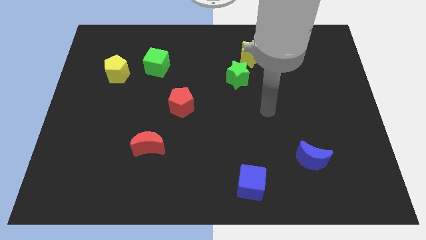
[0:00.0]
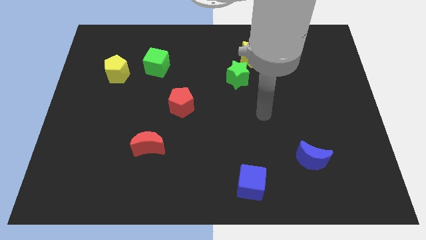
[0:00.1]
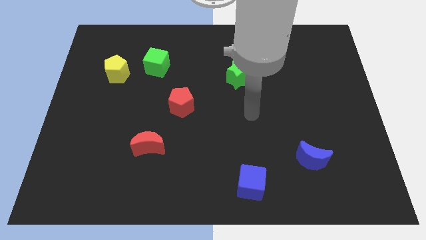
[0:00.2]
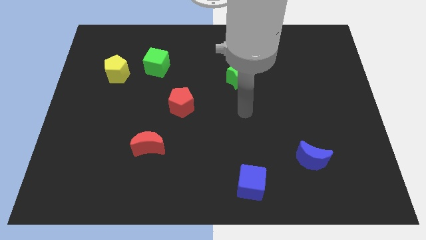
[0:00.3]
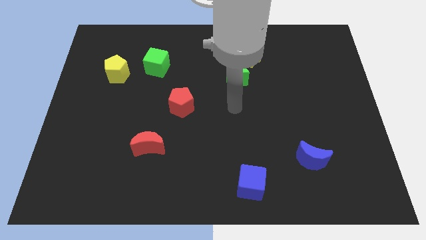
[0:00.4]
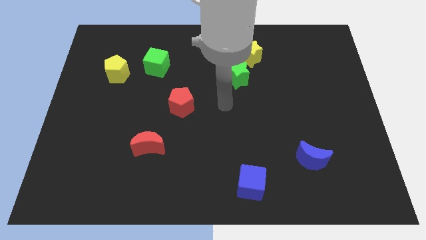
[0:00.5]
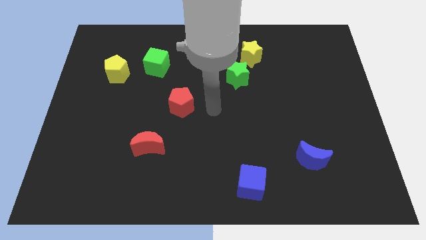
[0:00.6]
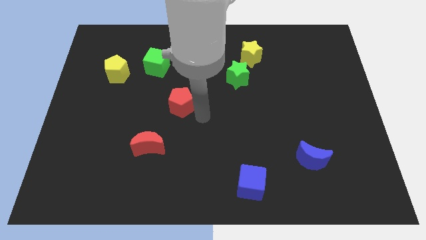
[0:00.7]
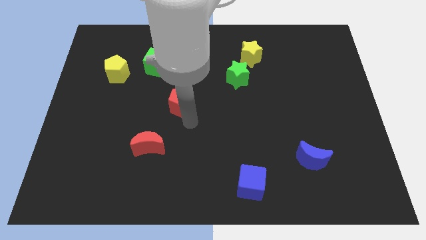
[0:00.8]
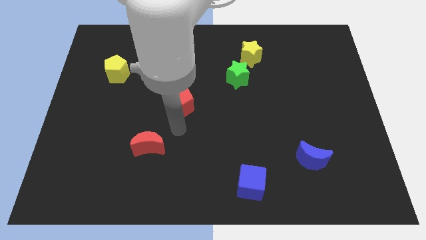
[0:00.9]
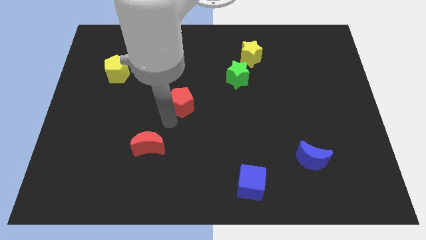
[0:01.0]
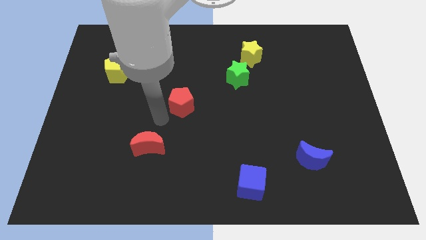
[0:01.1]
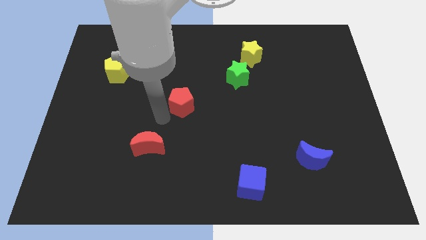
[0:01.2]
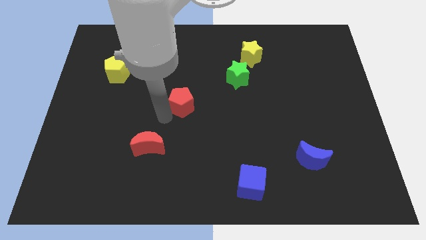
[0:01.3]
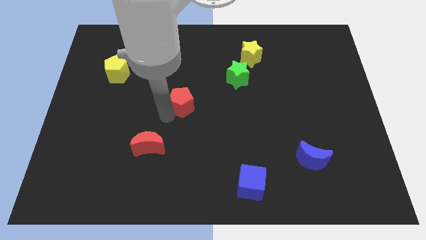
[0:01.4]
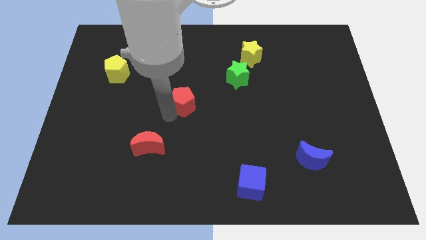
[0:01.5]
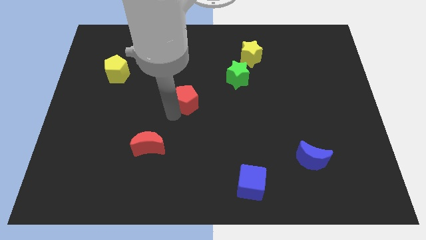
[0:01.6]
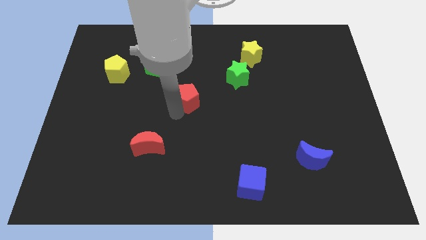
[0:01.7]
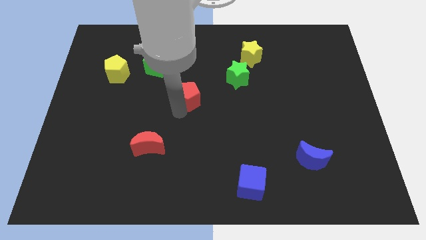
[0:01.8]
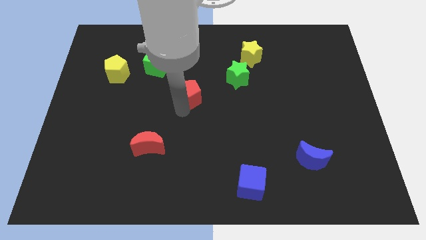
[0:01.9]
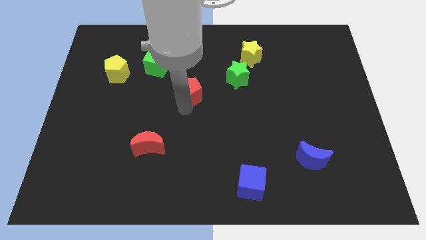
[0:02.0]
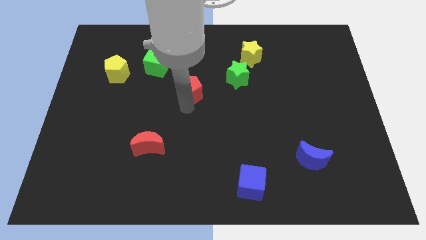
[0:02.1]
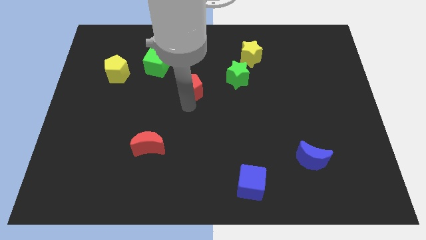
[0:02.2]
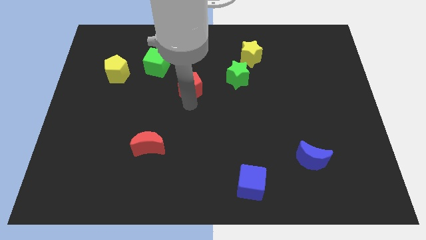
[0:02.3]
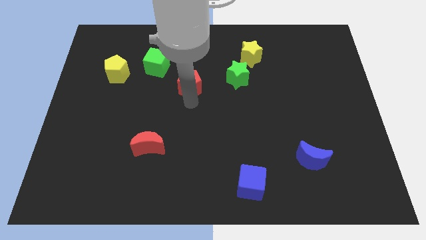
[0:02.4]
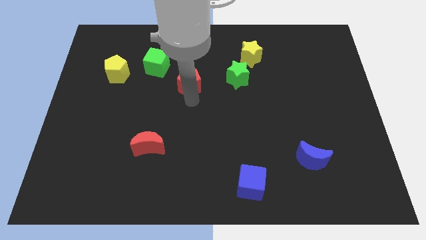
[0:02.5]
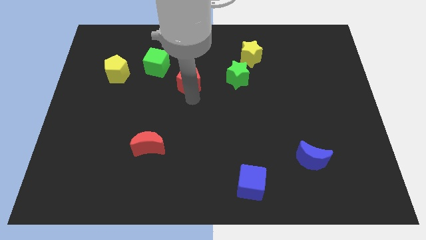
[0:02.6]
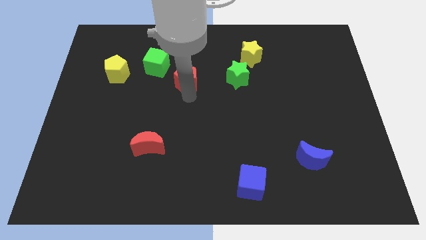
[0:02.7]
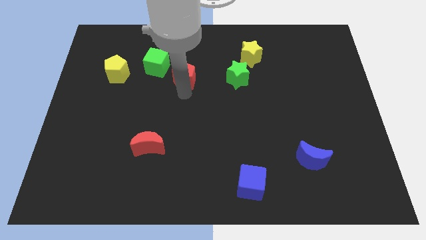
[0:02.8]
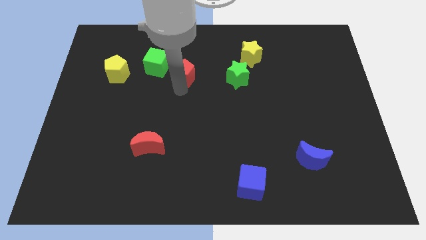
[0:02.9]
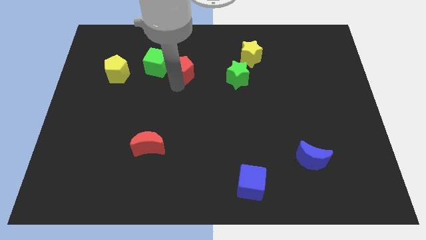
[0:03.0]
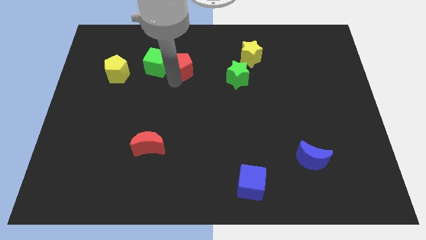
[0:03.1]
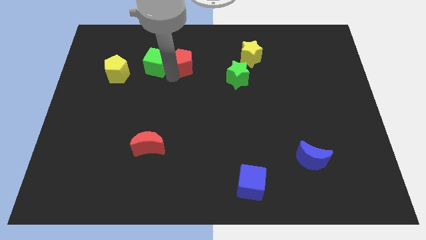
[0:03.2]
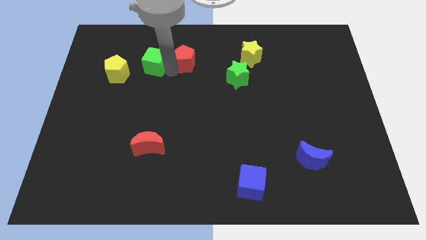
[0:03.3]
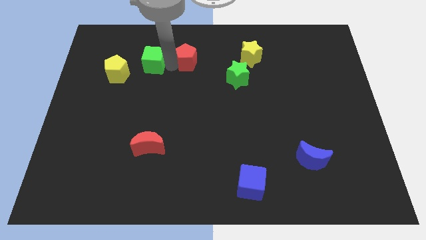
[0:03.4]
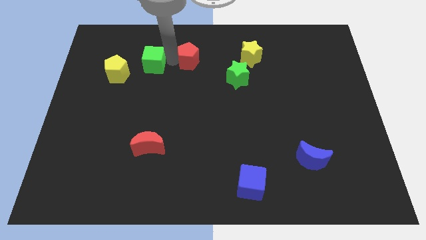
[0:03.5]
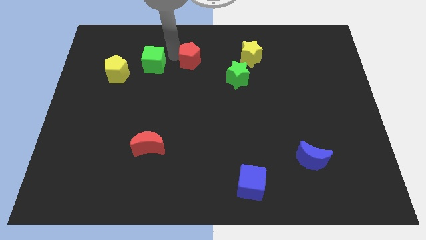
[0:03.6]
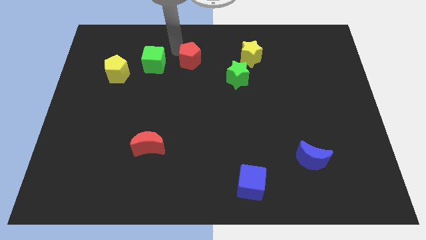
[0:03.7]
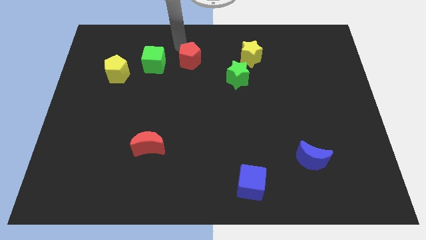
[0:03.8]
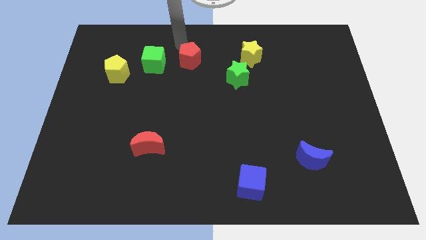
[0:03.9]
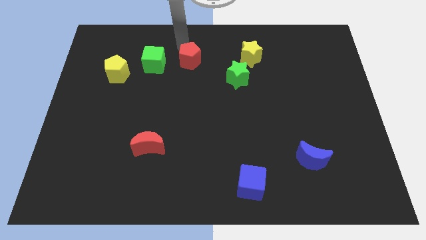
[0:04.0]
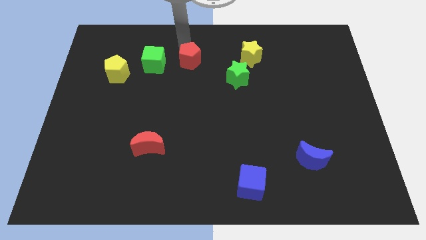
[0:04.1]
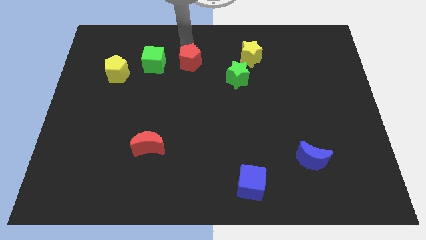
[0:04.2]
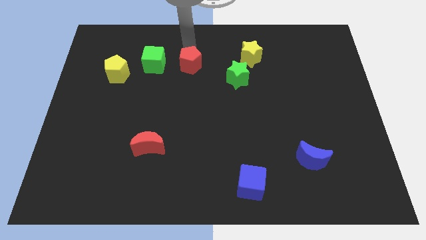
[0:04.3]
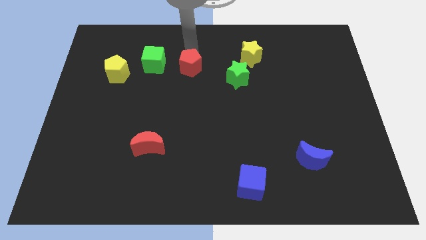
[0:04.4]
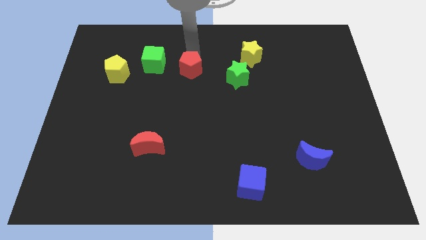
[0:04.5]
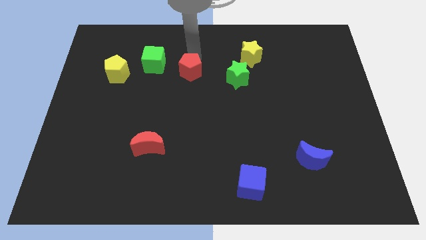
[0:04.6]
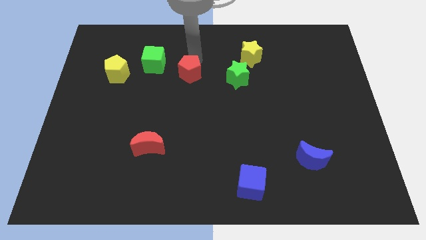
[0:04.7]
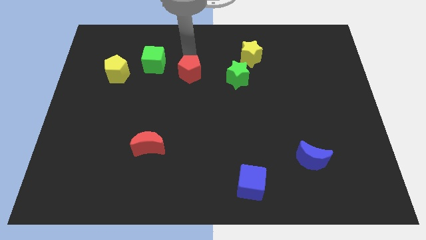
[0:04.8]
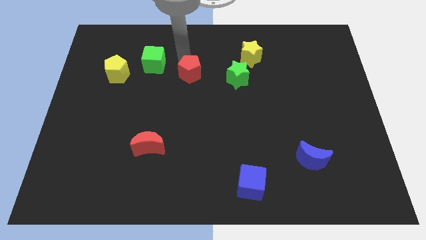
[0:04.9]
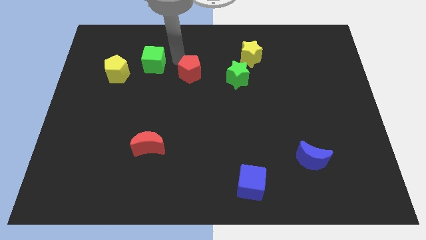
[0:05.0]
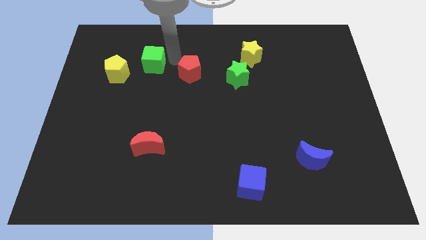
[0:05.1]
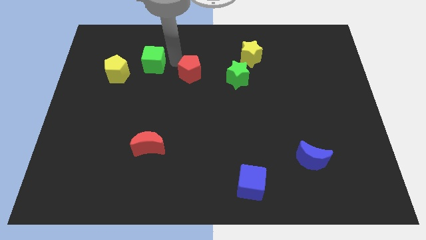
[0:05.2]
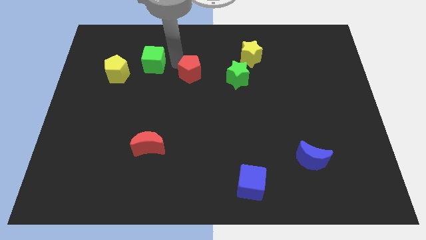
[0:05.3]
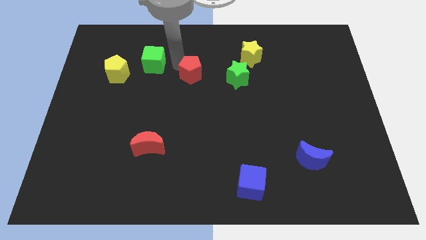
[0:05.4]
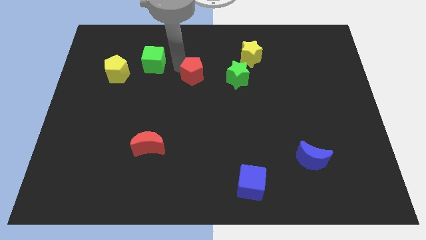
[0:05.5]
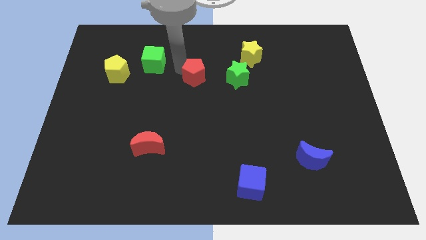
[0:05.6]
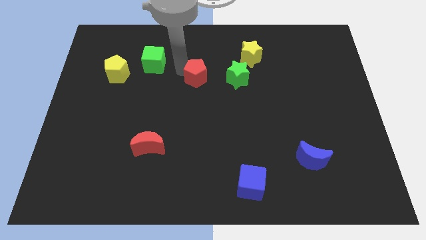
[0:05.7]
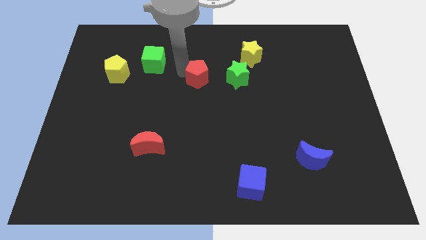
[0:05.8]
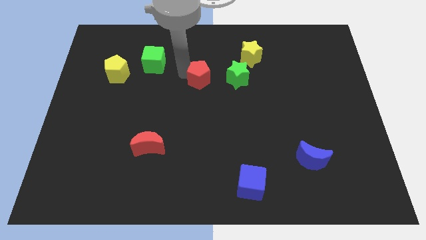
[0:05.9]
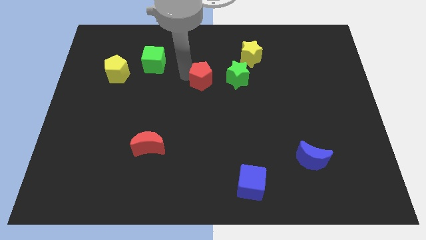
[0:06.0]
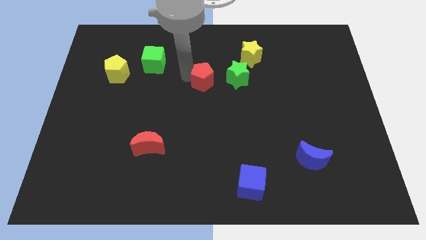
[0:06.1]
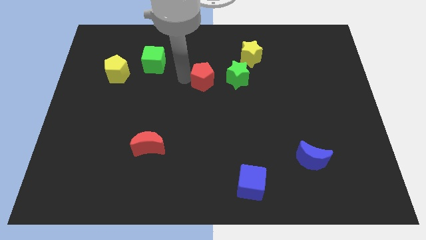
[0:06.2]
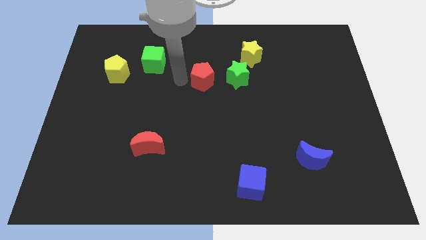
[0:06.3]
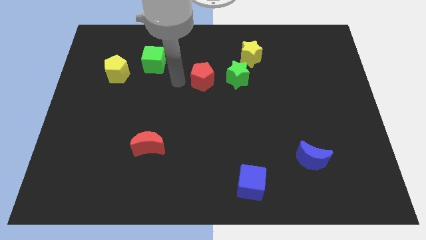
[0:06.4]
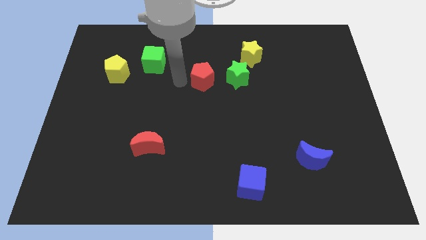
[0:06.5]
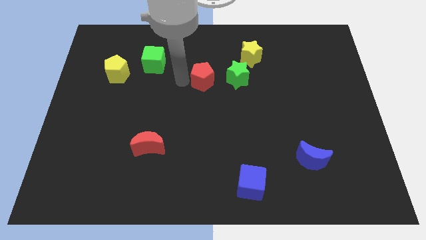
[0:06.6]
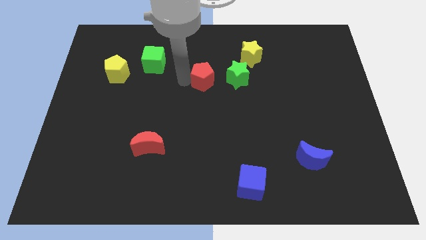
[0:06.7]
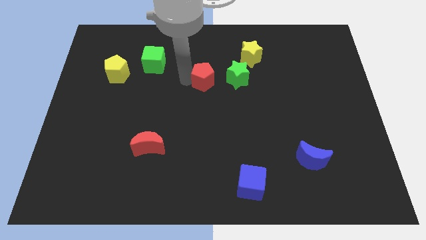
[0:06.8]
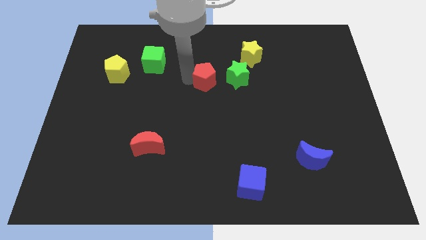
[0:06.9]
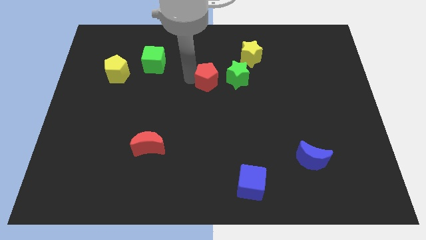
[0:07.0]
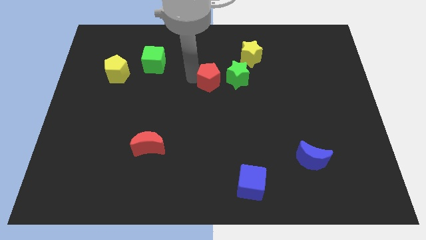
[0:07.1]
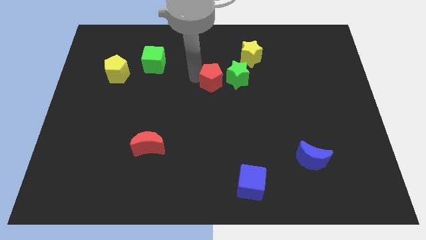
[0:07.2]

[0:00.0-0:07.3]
put the red pentagon to the bottom left side of the yellow star
